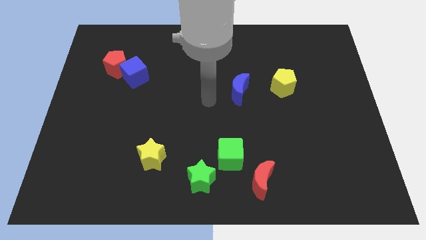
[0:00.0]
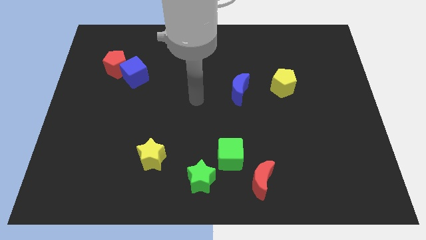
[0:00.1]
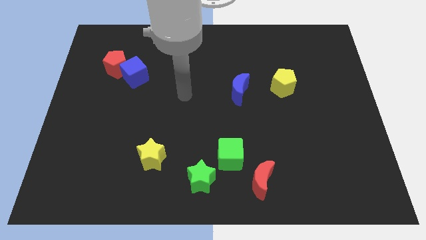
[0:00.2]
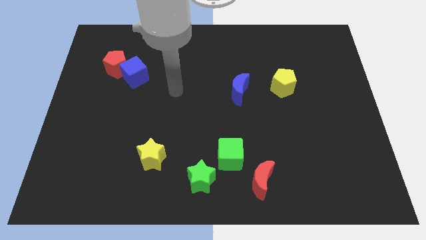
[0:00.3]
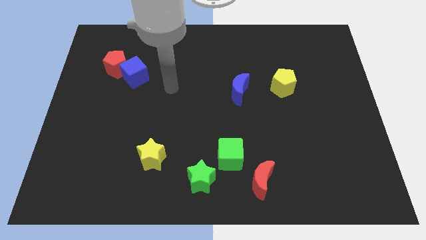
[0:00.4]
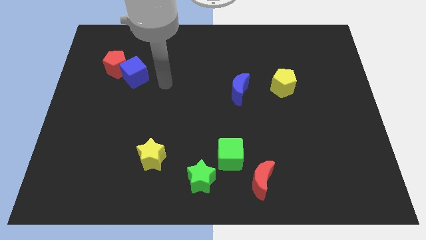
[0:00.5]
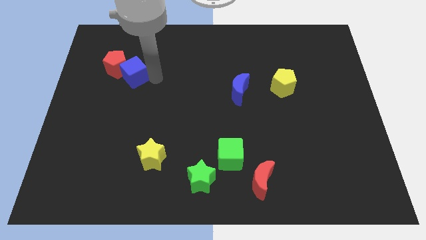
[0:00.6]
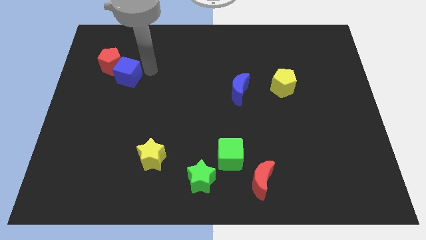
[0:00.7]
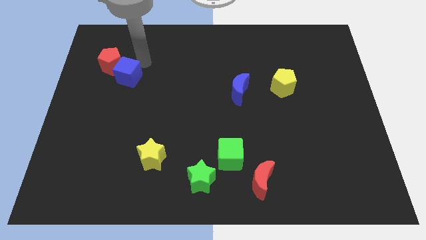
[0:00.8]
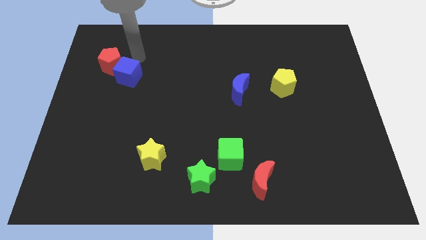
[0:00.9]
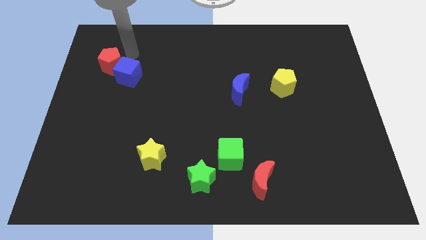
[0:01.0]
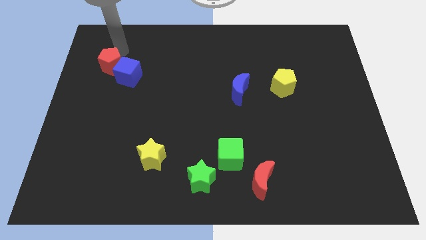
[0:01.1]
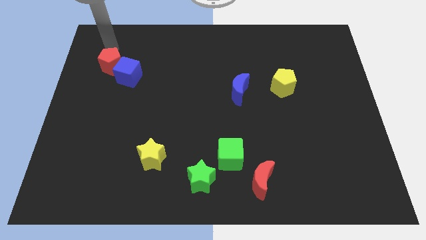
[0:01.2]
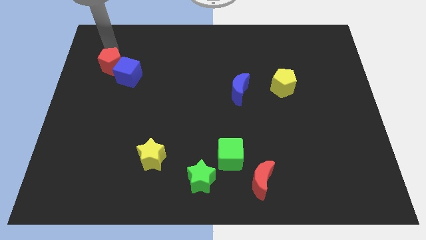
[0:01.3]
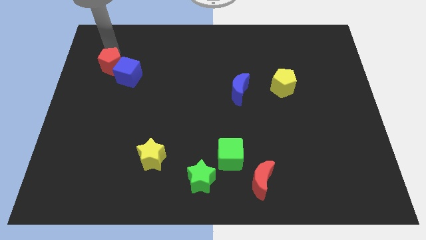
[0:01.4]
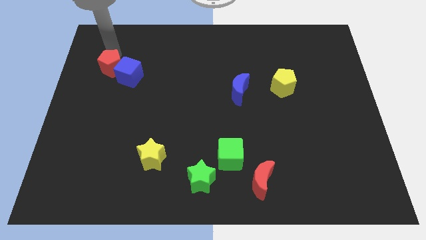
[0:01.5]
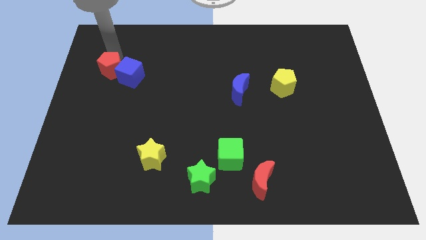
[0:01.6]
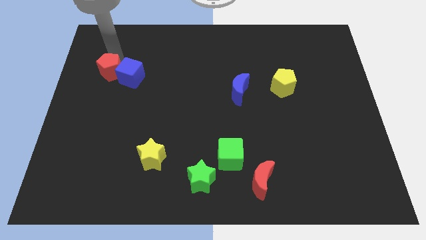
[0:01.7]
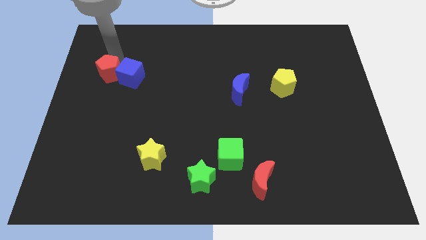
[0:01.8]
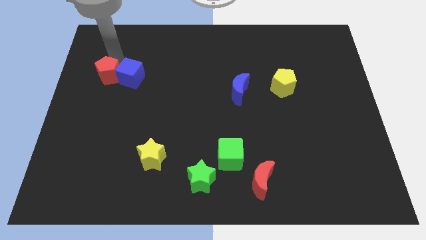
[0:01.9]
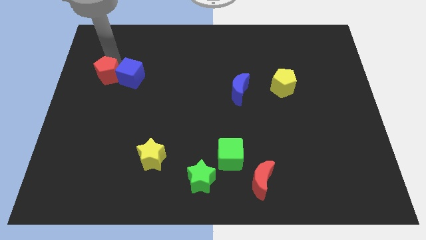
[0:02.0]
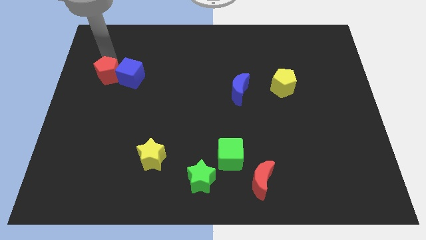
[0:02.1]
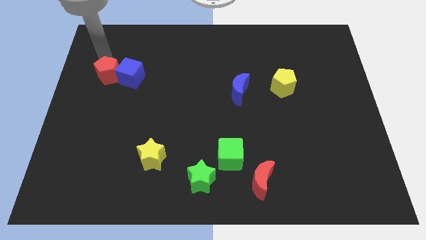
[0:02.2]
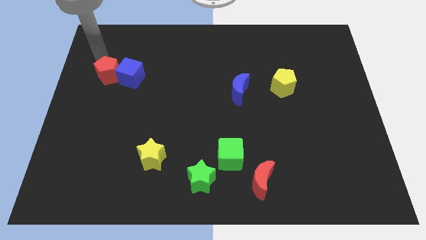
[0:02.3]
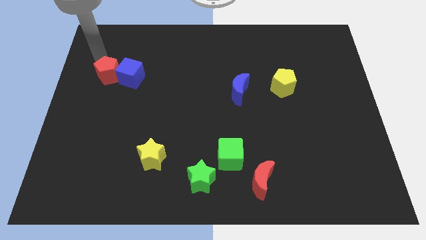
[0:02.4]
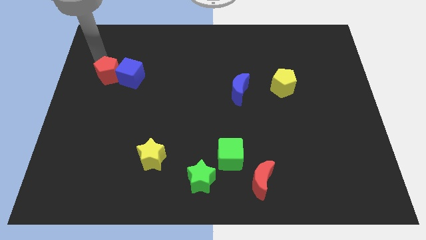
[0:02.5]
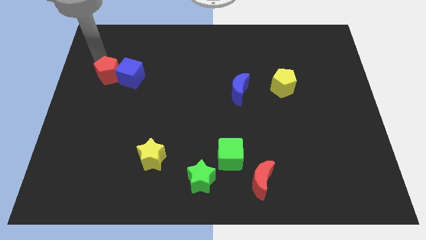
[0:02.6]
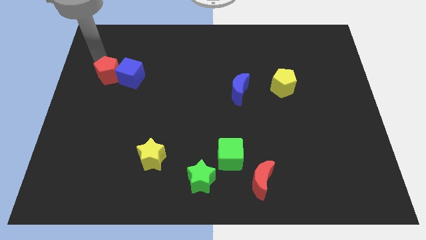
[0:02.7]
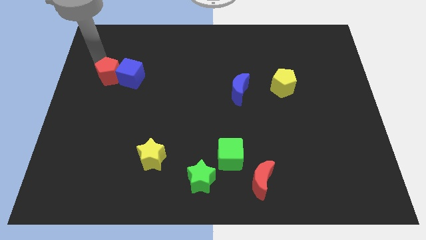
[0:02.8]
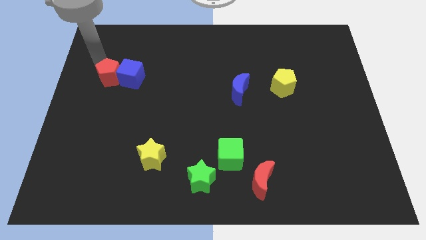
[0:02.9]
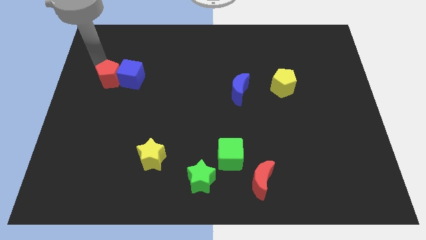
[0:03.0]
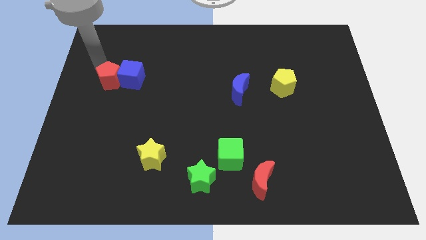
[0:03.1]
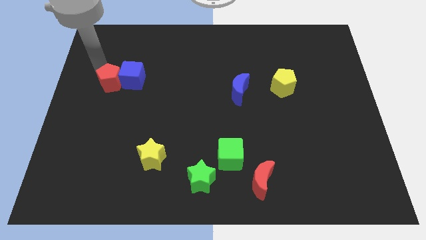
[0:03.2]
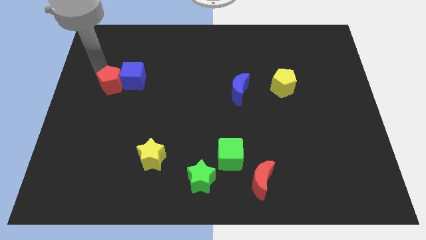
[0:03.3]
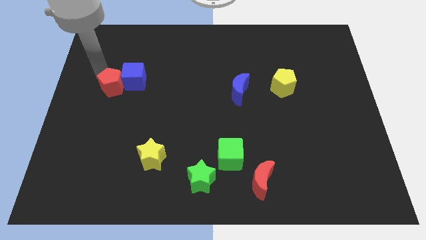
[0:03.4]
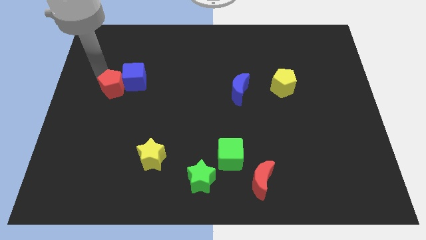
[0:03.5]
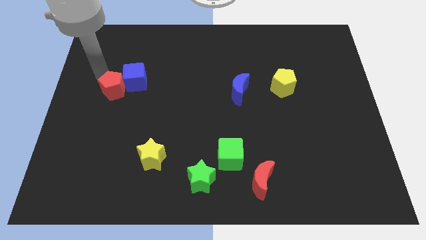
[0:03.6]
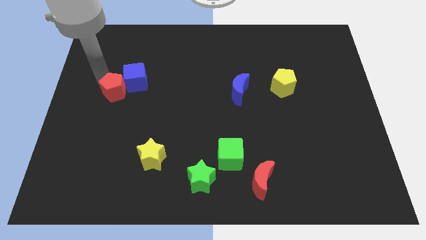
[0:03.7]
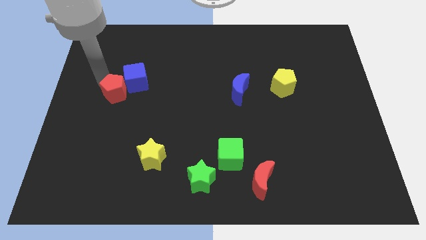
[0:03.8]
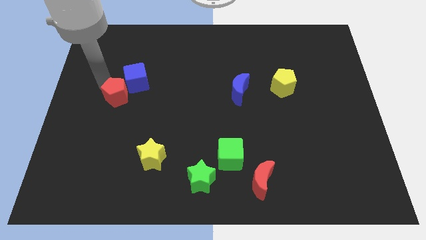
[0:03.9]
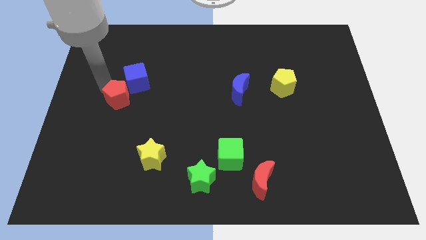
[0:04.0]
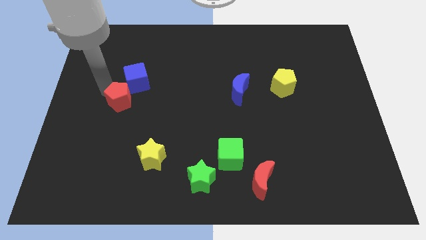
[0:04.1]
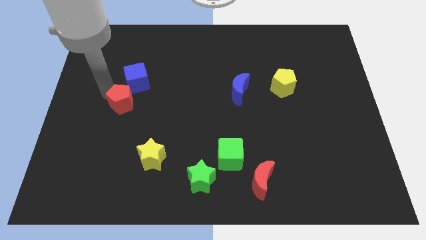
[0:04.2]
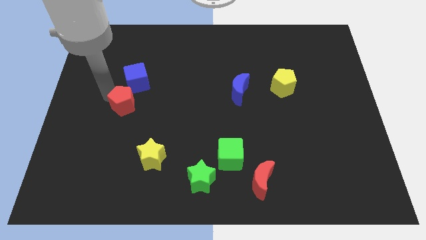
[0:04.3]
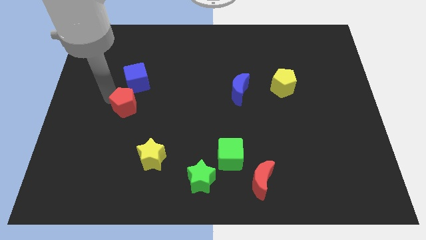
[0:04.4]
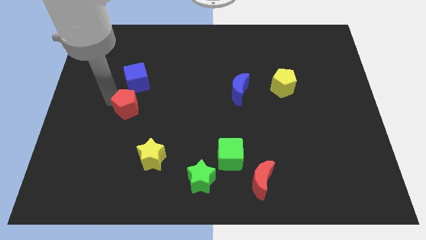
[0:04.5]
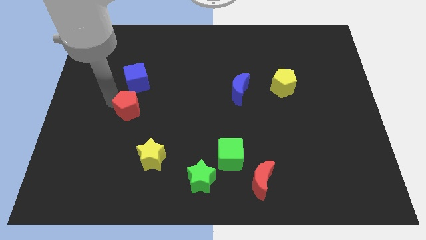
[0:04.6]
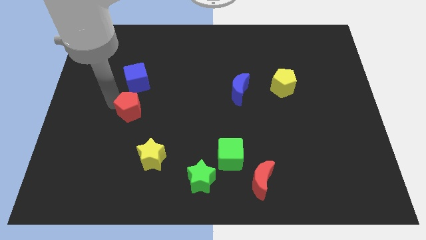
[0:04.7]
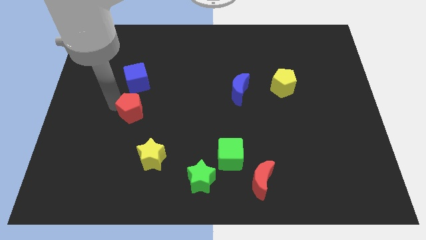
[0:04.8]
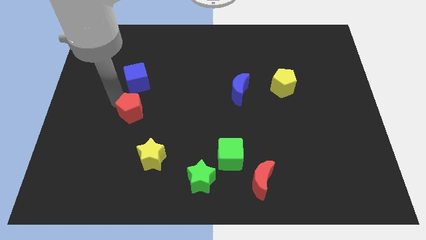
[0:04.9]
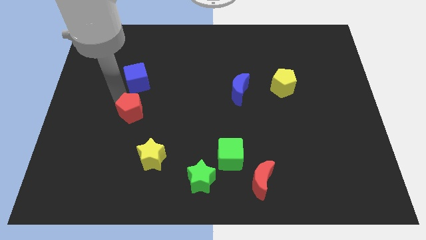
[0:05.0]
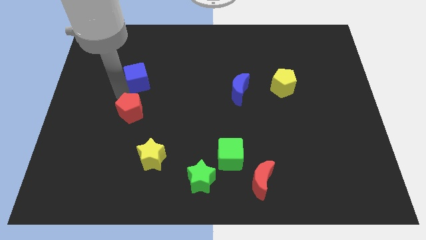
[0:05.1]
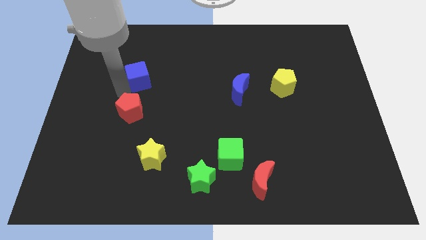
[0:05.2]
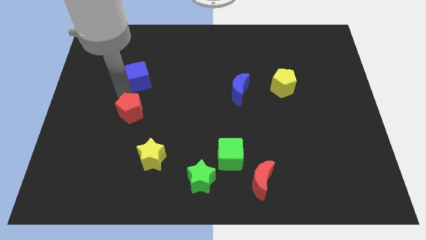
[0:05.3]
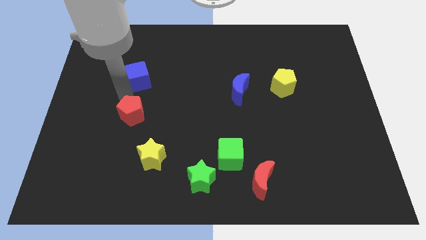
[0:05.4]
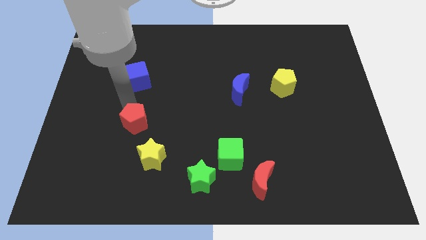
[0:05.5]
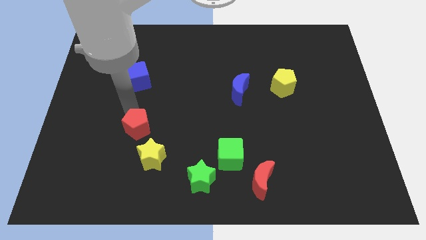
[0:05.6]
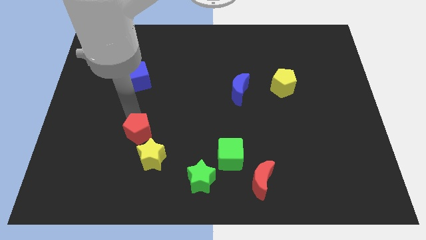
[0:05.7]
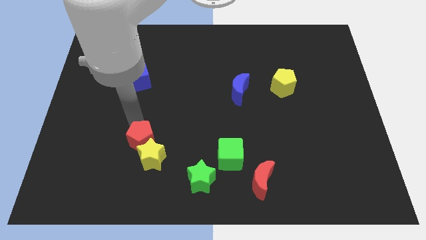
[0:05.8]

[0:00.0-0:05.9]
push the red pentagon to the yellow star

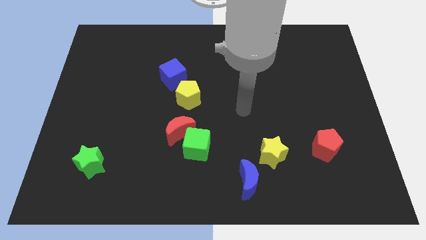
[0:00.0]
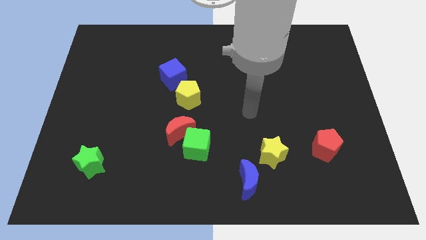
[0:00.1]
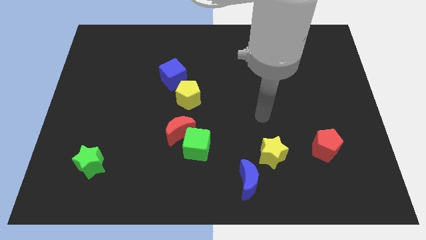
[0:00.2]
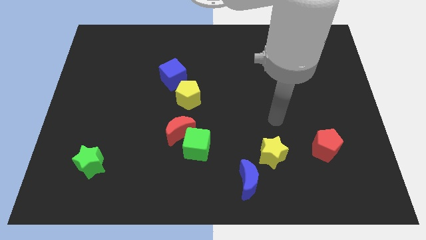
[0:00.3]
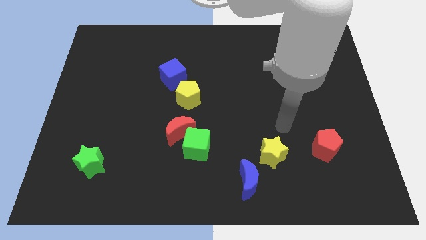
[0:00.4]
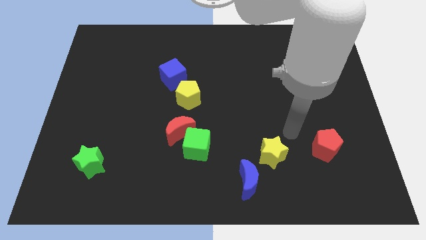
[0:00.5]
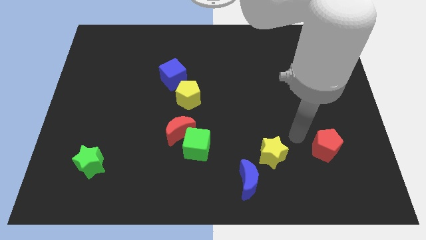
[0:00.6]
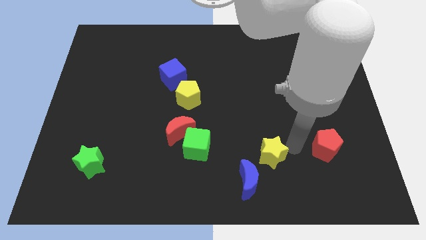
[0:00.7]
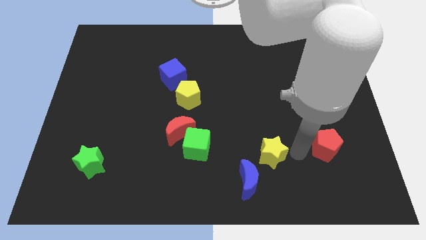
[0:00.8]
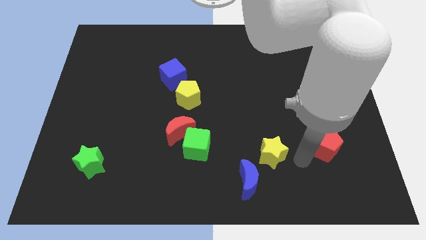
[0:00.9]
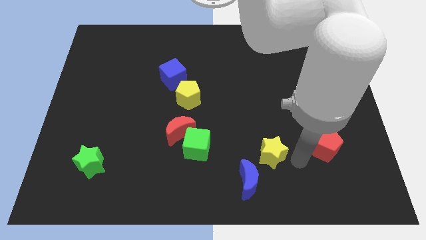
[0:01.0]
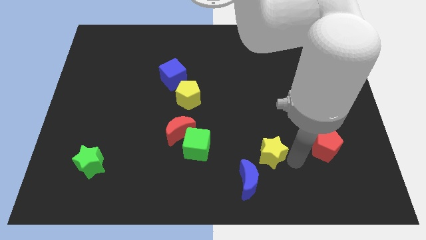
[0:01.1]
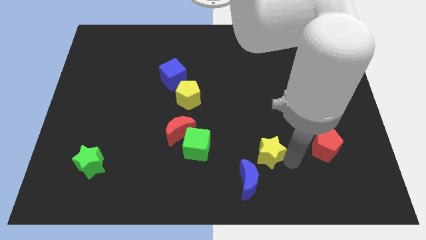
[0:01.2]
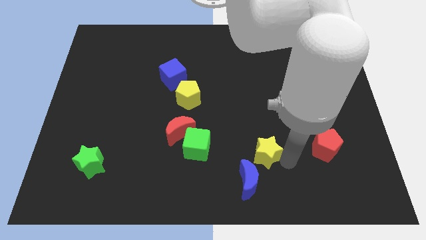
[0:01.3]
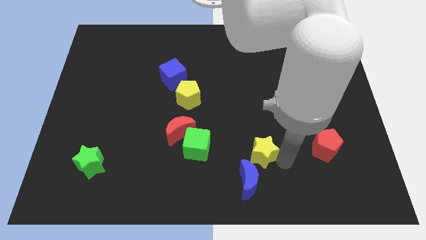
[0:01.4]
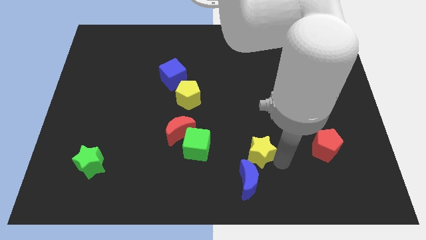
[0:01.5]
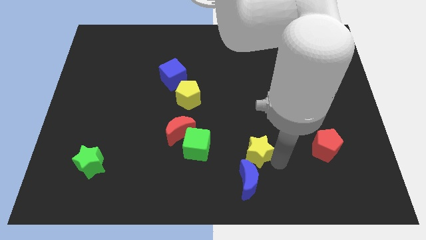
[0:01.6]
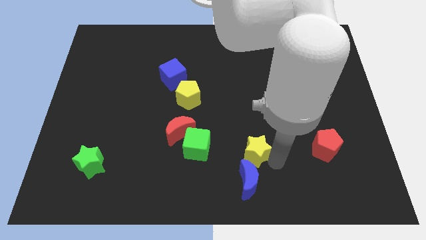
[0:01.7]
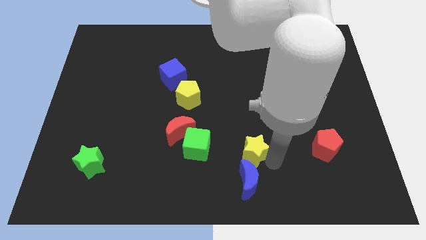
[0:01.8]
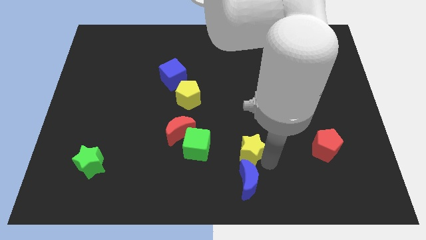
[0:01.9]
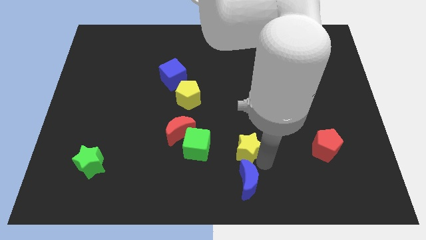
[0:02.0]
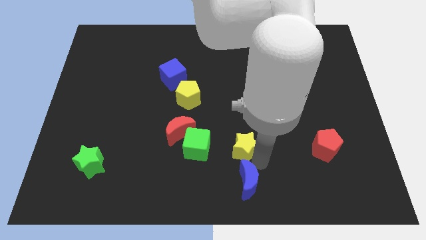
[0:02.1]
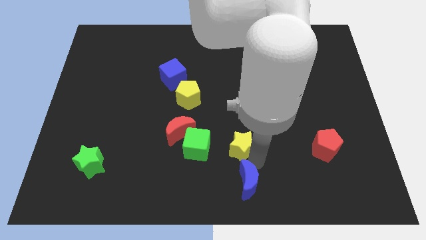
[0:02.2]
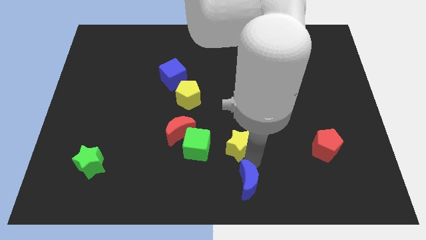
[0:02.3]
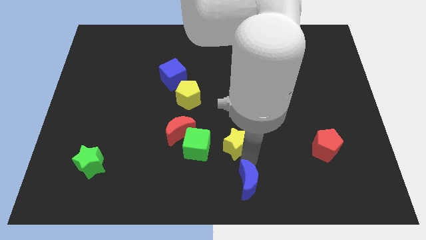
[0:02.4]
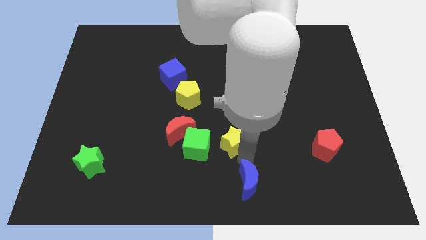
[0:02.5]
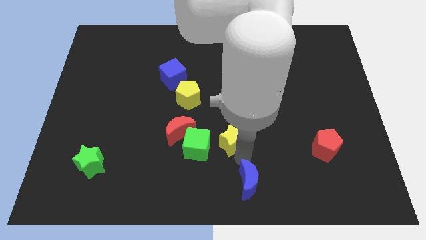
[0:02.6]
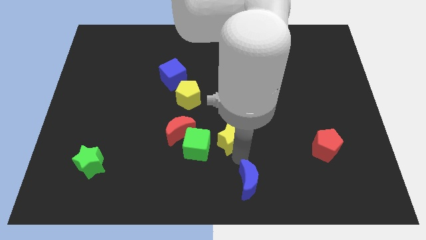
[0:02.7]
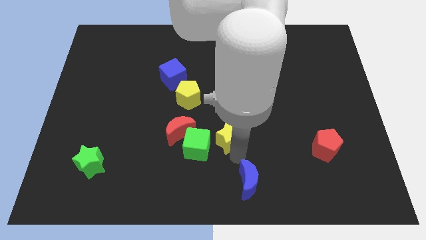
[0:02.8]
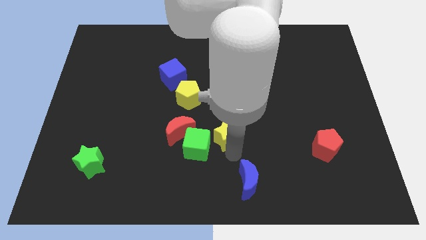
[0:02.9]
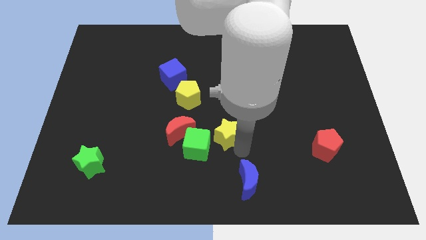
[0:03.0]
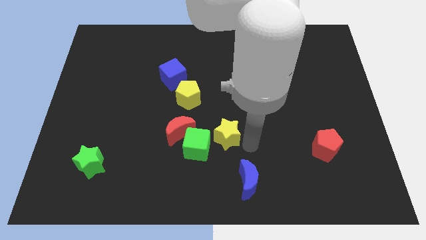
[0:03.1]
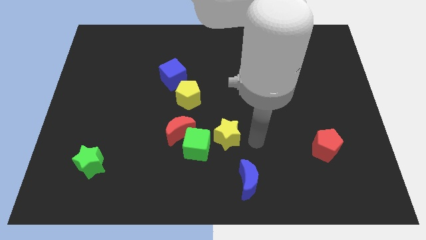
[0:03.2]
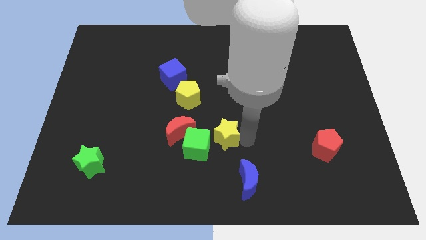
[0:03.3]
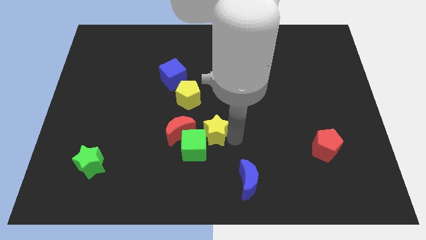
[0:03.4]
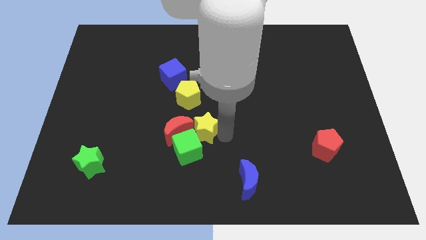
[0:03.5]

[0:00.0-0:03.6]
move the yellow star close to the red moon
